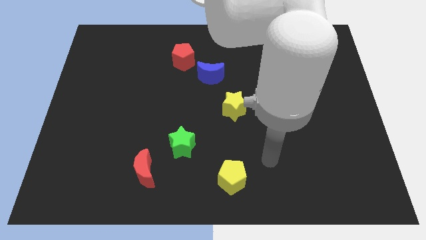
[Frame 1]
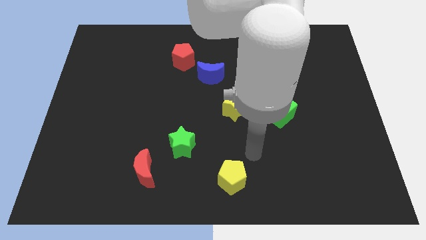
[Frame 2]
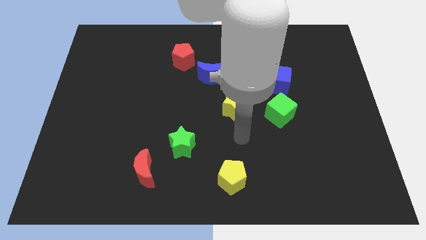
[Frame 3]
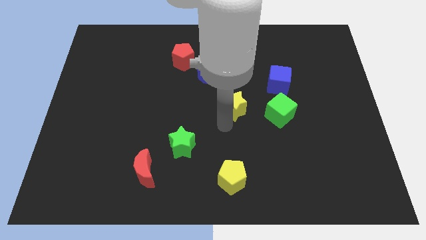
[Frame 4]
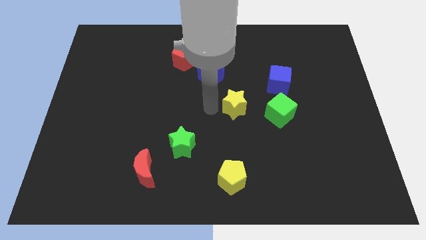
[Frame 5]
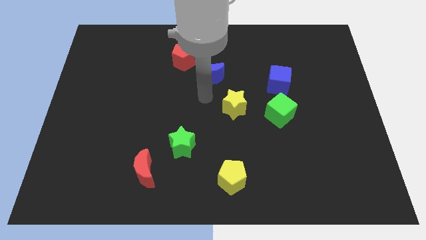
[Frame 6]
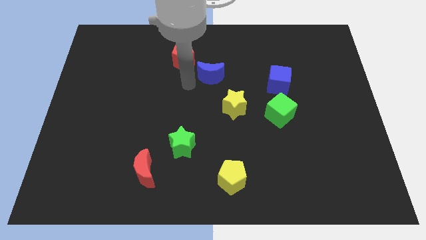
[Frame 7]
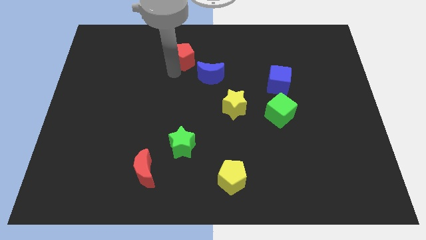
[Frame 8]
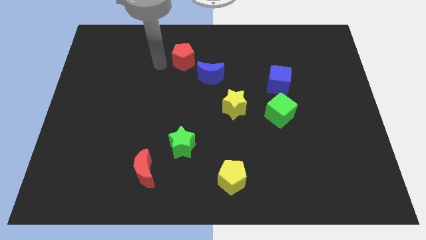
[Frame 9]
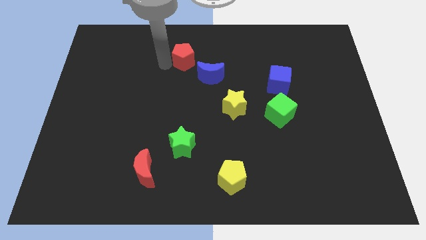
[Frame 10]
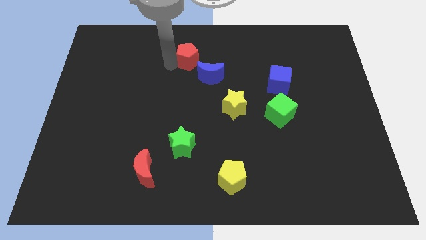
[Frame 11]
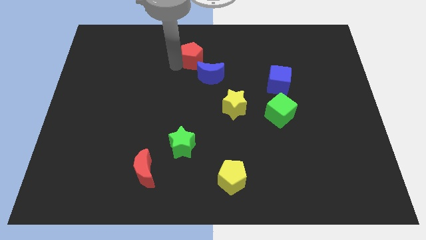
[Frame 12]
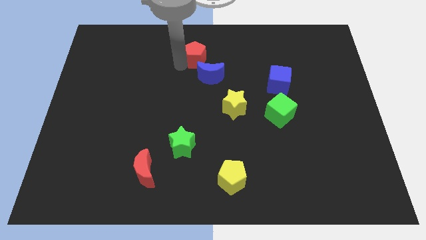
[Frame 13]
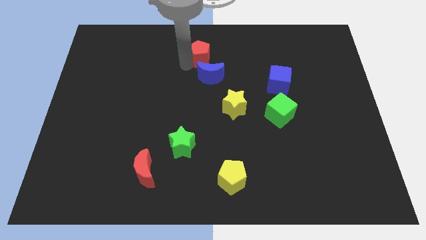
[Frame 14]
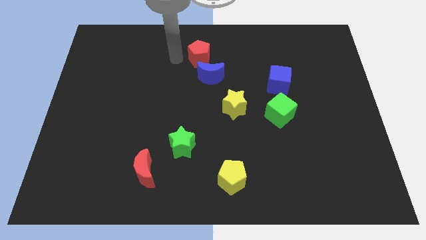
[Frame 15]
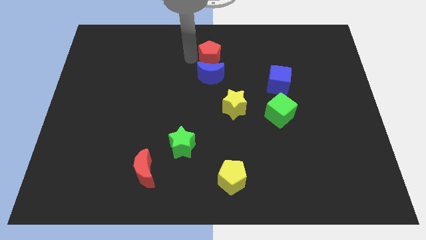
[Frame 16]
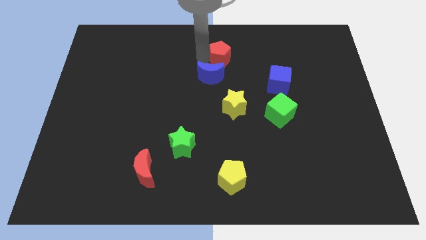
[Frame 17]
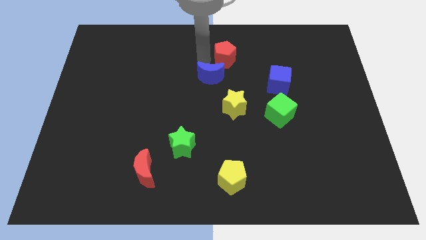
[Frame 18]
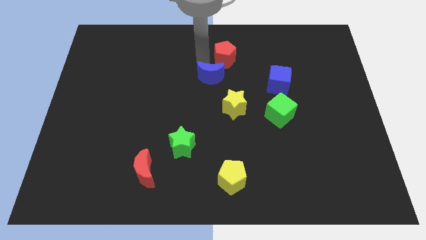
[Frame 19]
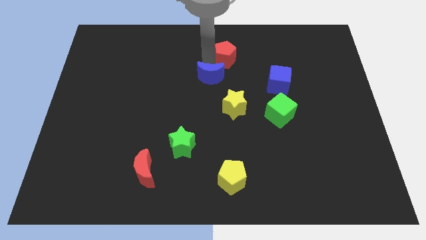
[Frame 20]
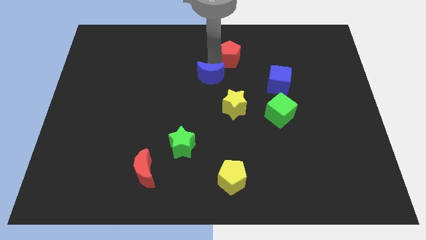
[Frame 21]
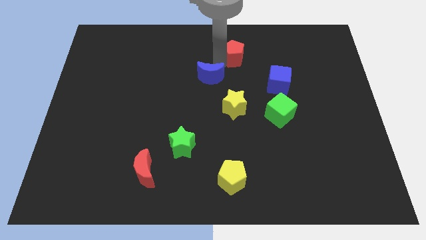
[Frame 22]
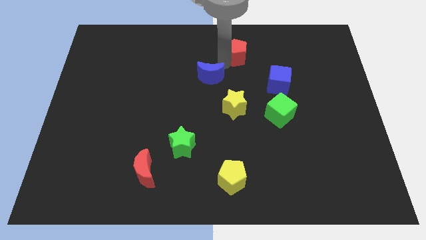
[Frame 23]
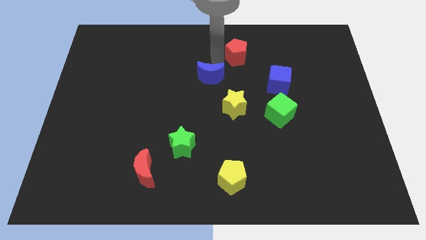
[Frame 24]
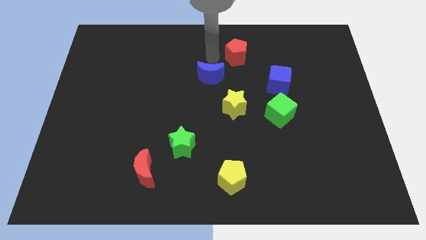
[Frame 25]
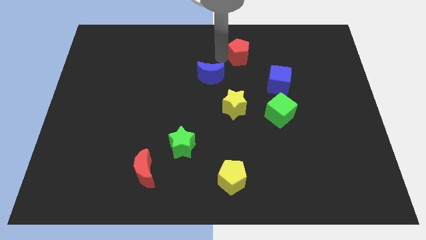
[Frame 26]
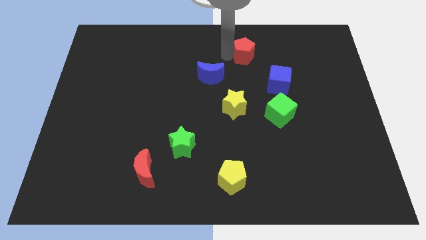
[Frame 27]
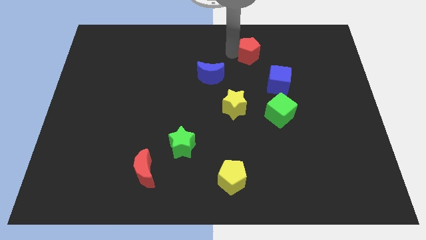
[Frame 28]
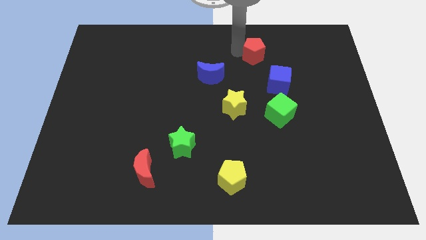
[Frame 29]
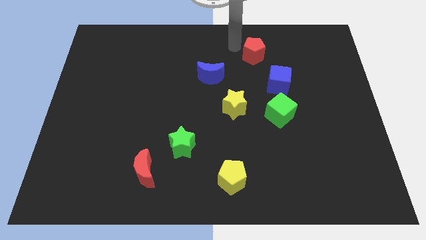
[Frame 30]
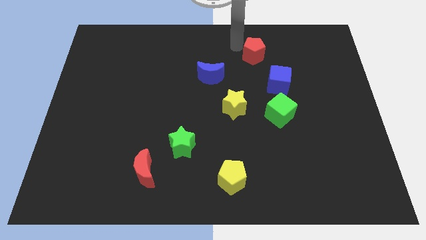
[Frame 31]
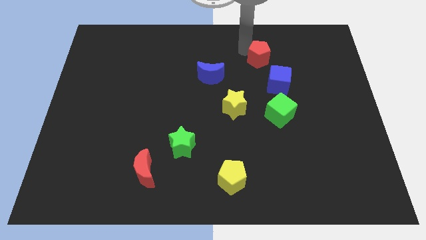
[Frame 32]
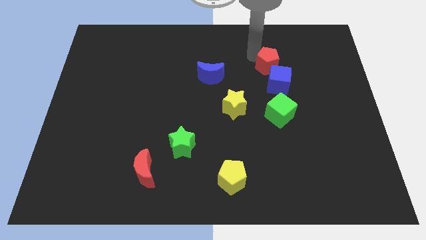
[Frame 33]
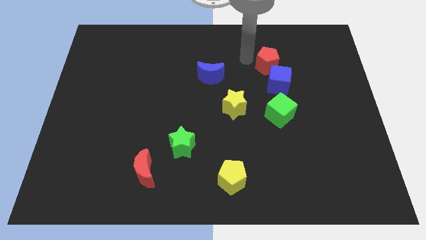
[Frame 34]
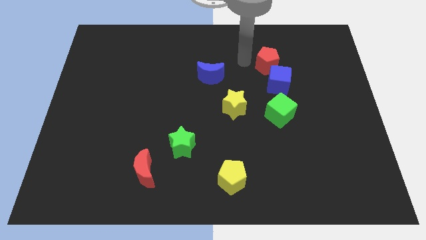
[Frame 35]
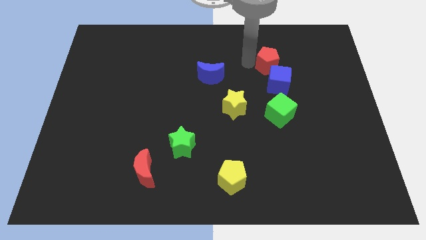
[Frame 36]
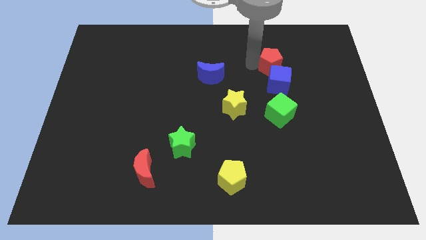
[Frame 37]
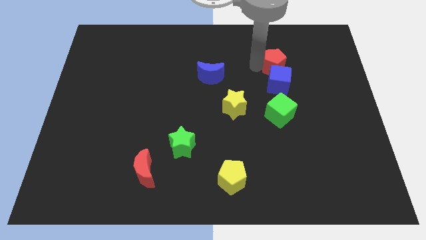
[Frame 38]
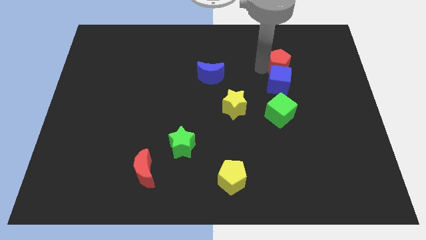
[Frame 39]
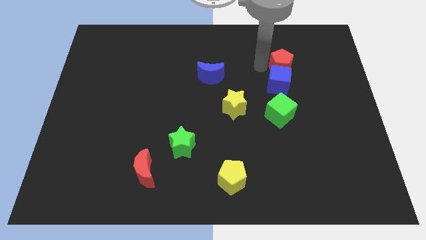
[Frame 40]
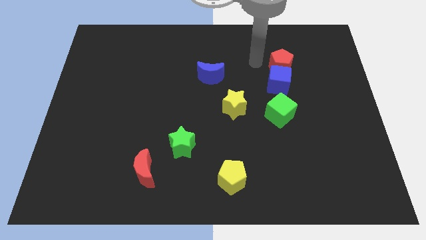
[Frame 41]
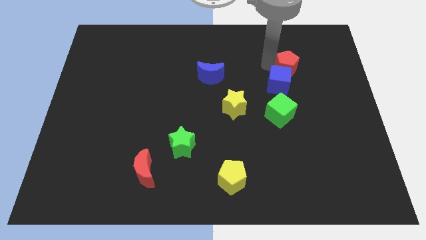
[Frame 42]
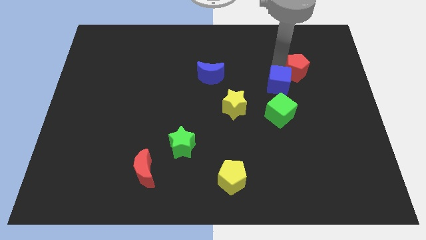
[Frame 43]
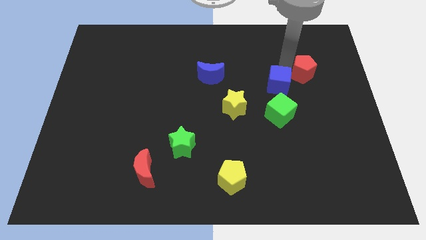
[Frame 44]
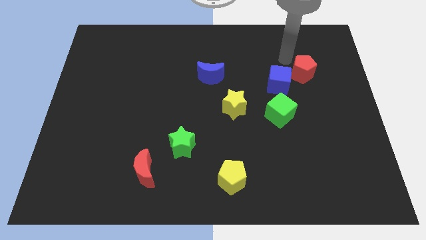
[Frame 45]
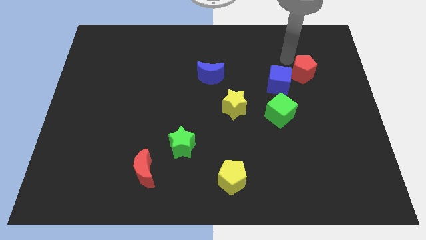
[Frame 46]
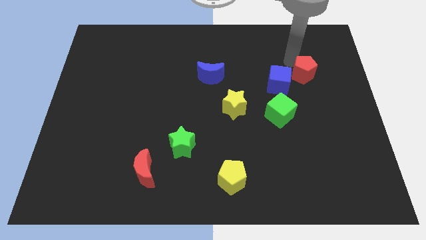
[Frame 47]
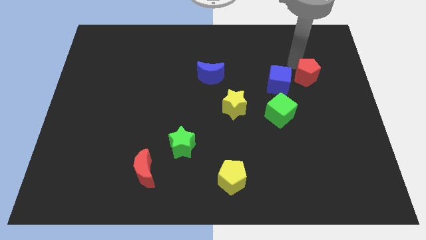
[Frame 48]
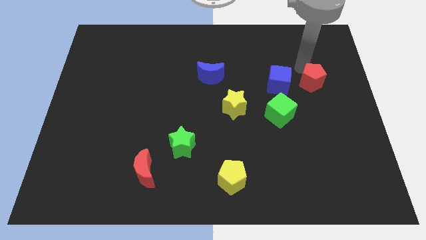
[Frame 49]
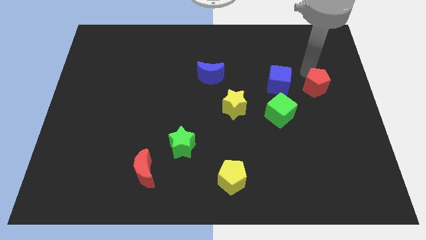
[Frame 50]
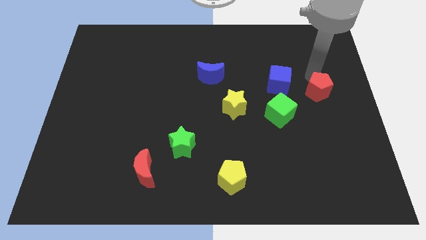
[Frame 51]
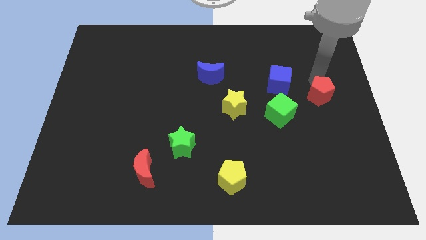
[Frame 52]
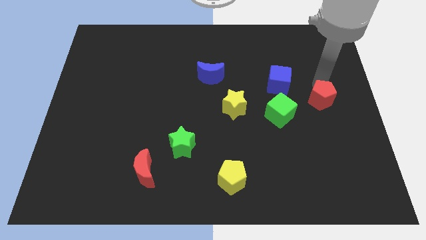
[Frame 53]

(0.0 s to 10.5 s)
push the red pentagon just right of the green cube

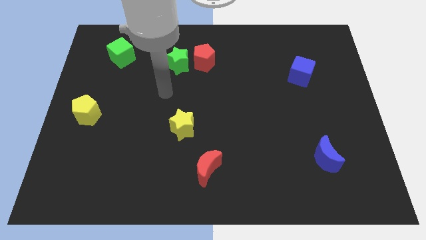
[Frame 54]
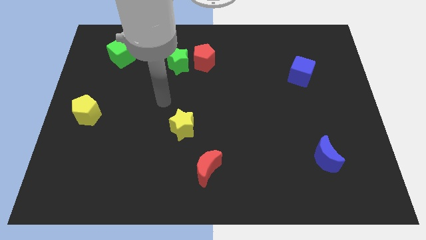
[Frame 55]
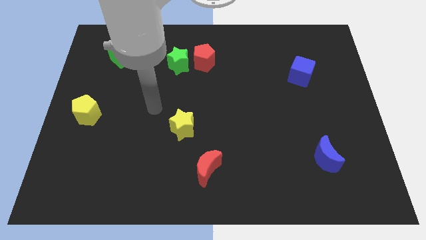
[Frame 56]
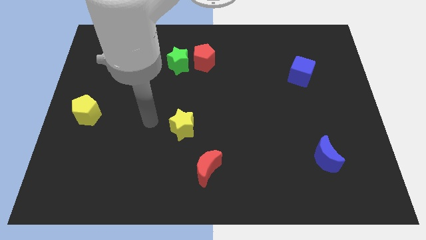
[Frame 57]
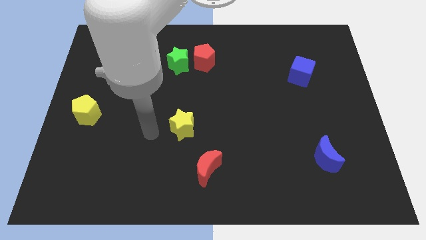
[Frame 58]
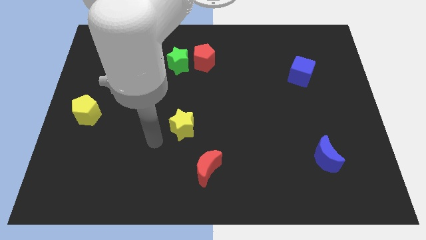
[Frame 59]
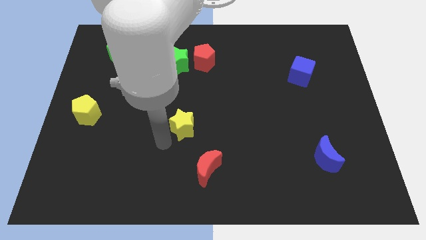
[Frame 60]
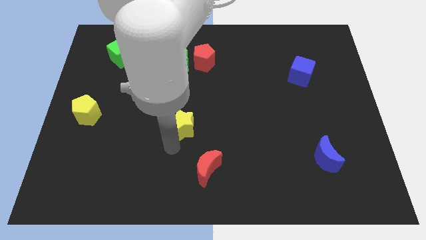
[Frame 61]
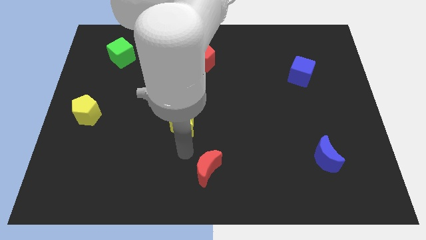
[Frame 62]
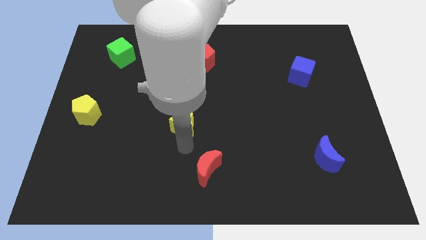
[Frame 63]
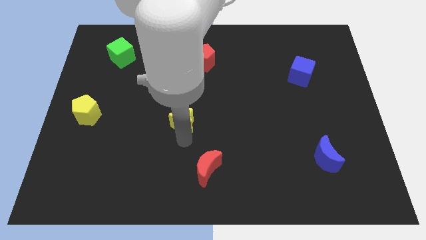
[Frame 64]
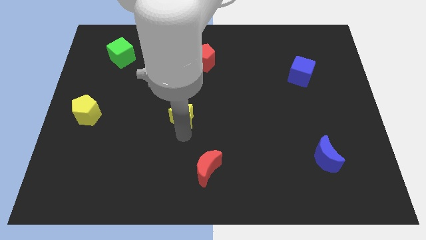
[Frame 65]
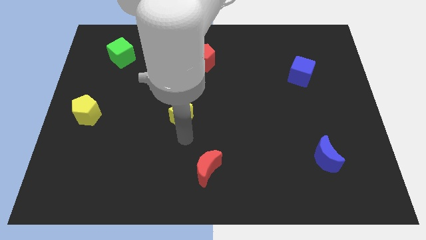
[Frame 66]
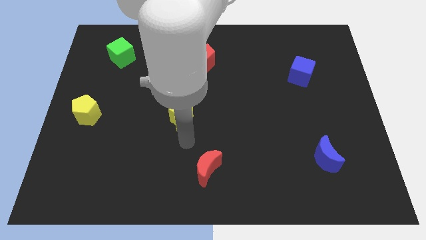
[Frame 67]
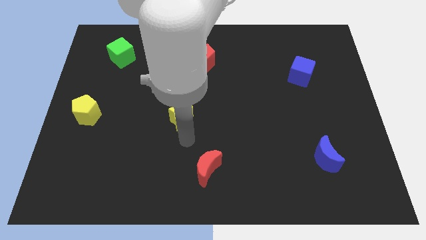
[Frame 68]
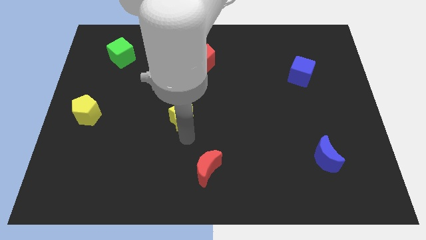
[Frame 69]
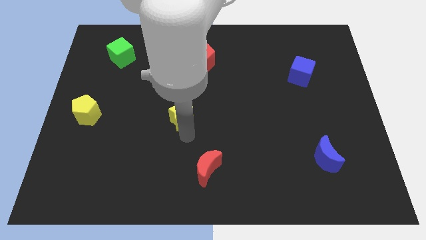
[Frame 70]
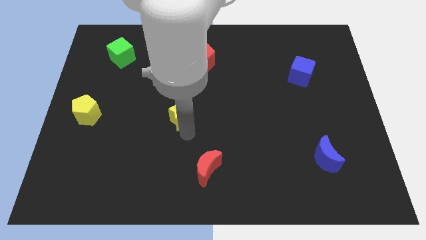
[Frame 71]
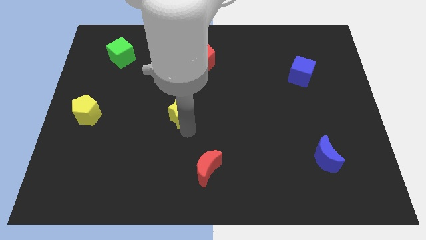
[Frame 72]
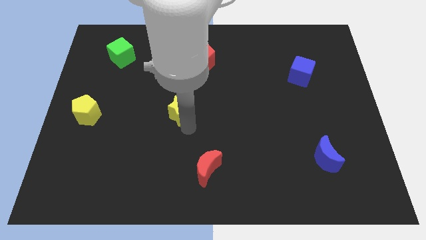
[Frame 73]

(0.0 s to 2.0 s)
move the yellow star to the bottom side of the green star
